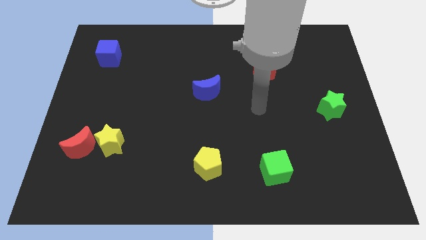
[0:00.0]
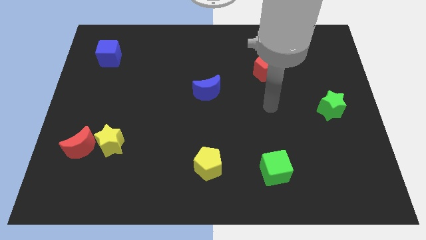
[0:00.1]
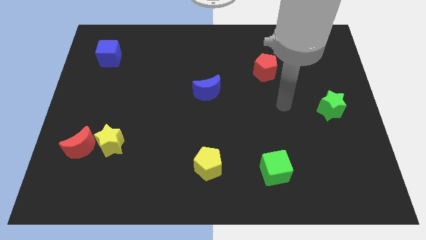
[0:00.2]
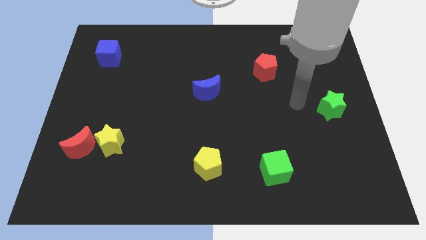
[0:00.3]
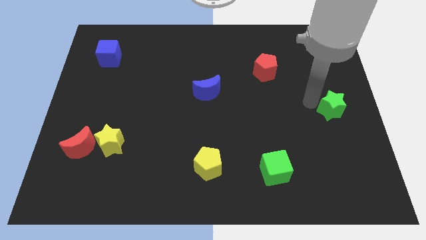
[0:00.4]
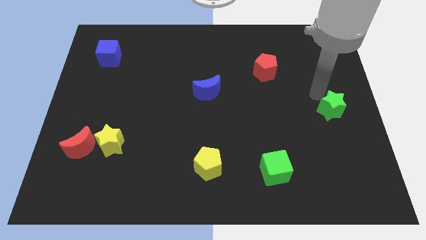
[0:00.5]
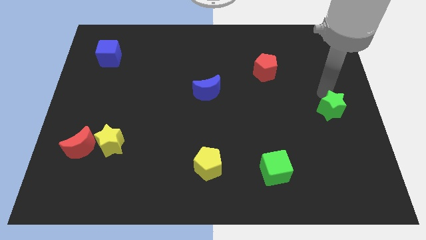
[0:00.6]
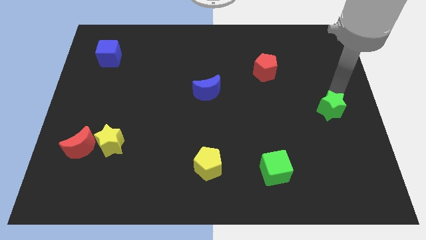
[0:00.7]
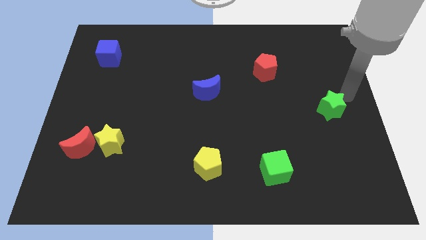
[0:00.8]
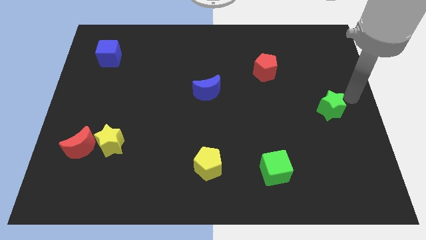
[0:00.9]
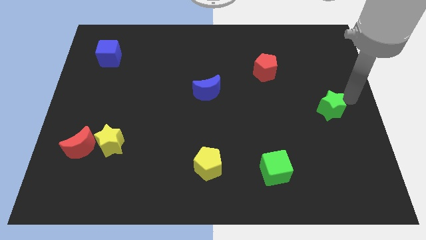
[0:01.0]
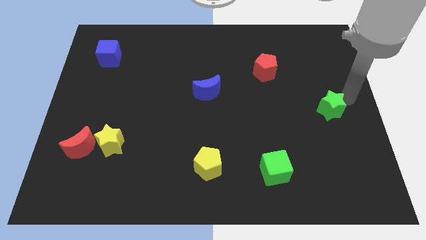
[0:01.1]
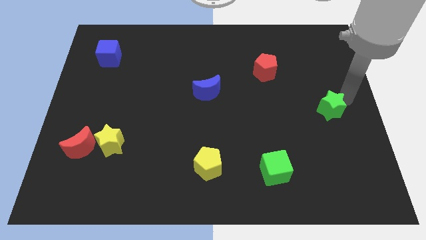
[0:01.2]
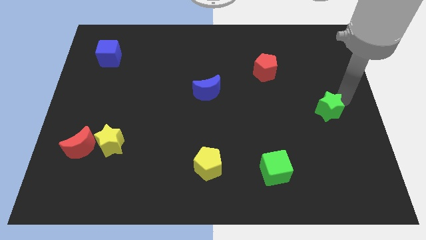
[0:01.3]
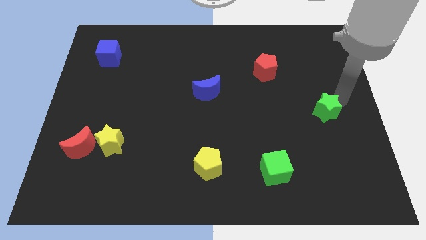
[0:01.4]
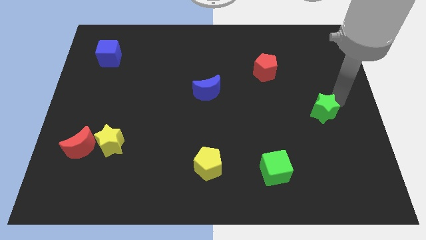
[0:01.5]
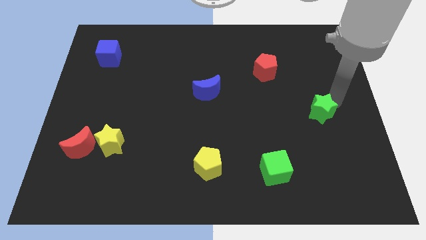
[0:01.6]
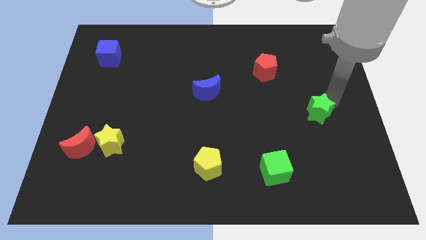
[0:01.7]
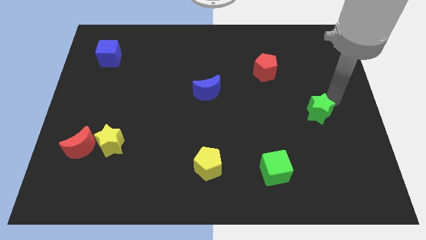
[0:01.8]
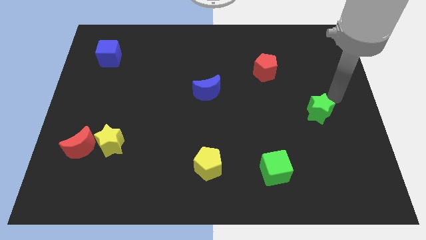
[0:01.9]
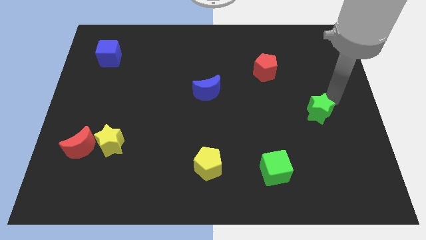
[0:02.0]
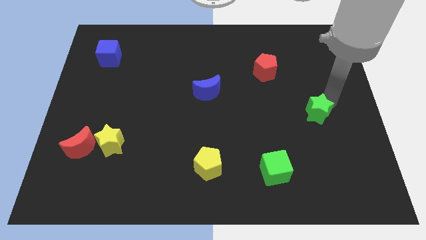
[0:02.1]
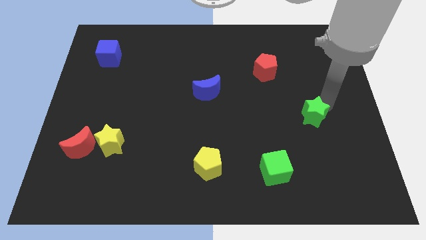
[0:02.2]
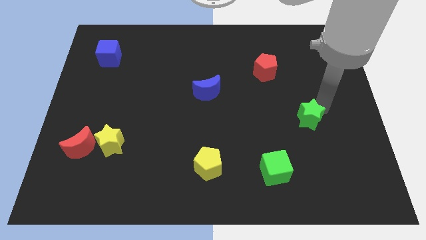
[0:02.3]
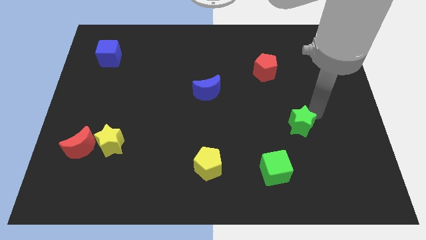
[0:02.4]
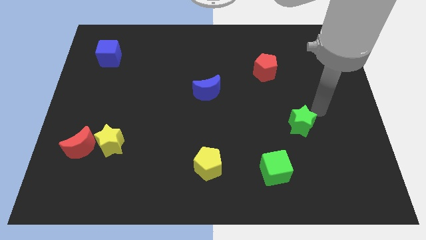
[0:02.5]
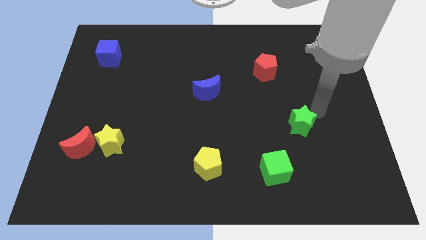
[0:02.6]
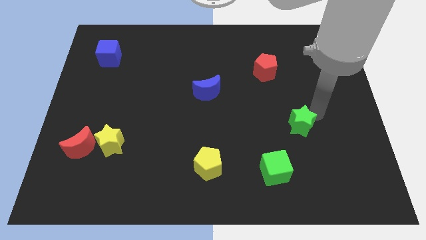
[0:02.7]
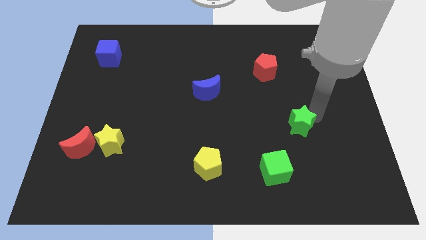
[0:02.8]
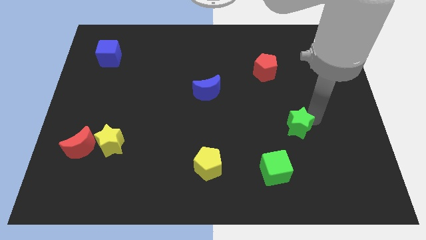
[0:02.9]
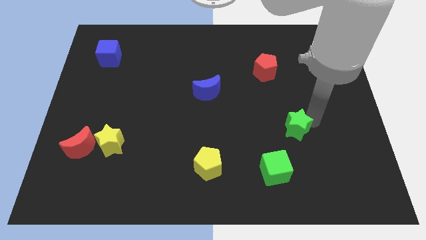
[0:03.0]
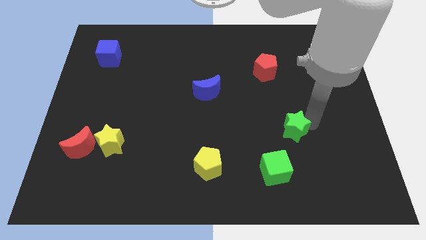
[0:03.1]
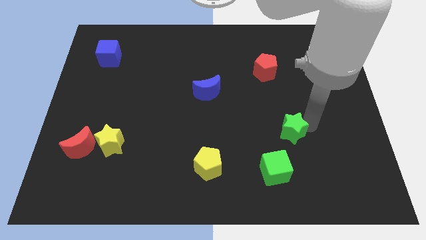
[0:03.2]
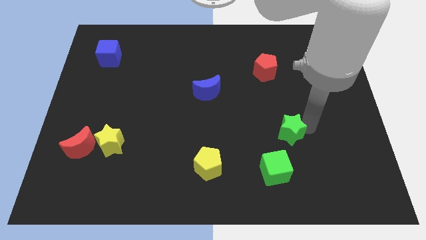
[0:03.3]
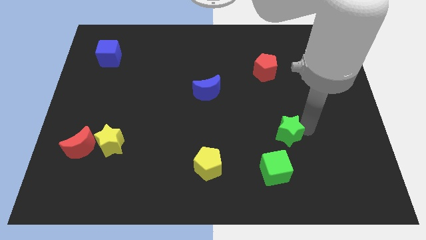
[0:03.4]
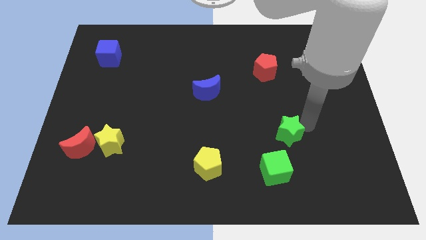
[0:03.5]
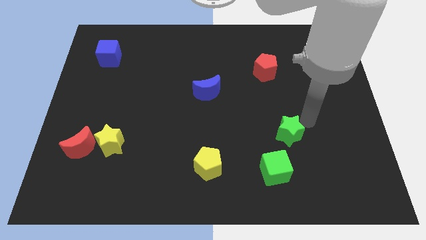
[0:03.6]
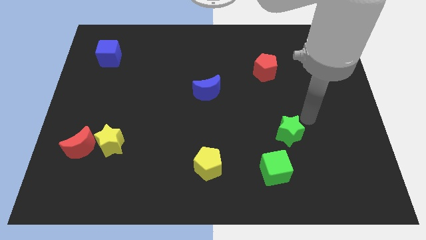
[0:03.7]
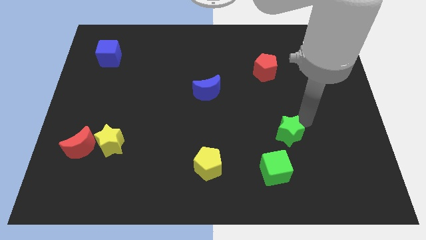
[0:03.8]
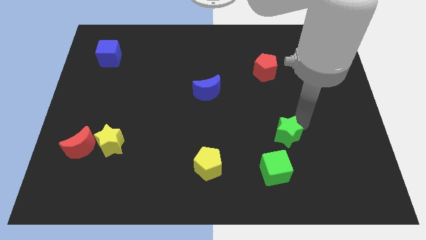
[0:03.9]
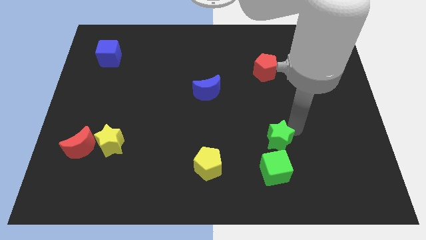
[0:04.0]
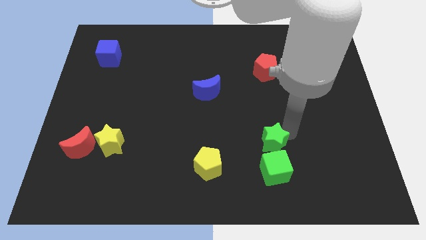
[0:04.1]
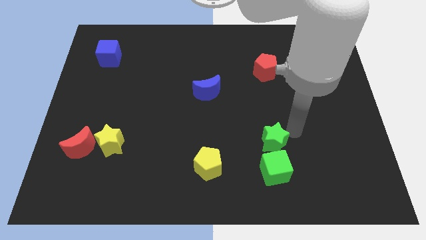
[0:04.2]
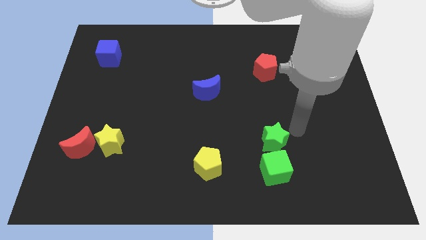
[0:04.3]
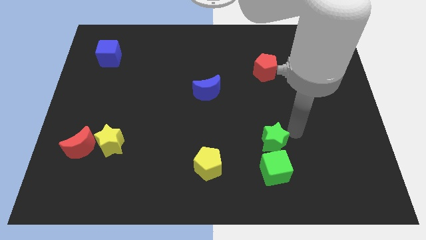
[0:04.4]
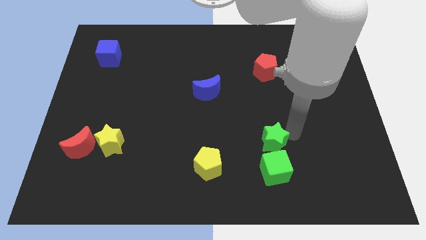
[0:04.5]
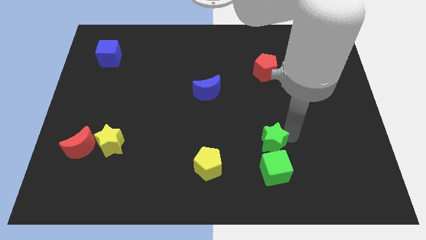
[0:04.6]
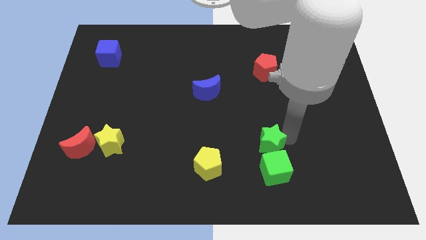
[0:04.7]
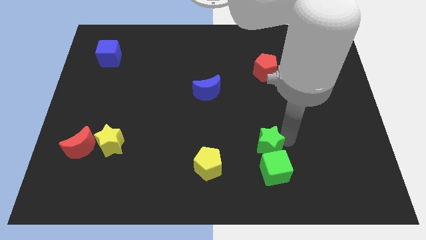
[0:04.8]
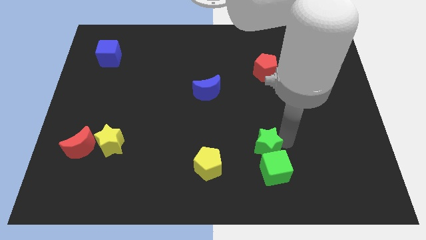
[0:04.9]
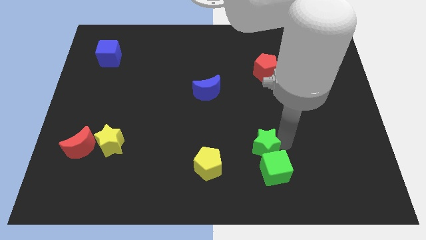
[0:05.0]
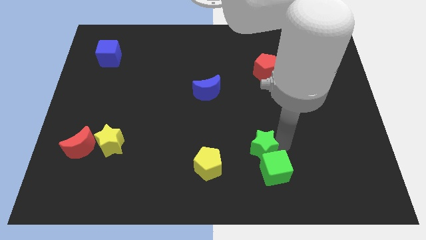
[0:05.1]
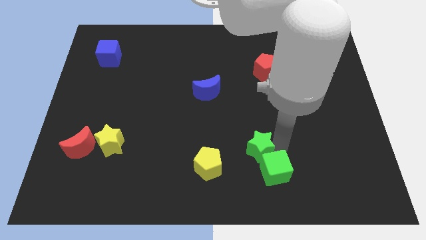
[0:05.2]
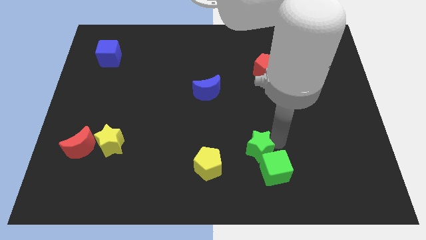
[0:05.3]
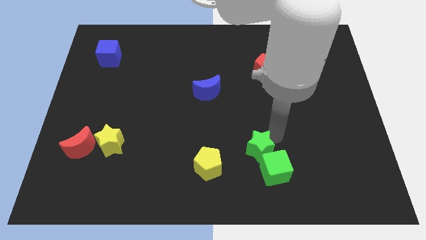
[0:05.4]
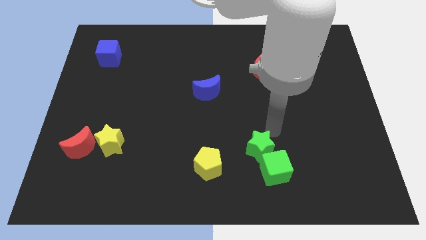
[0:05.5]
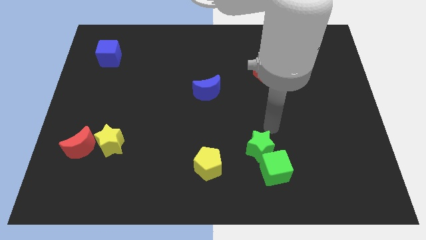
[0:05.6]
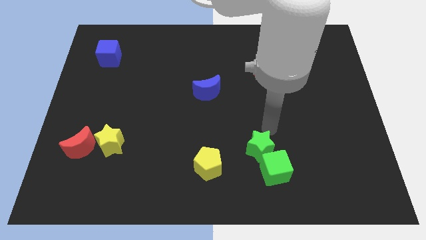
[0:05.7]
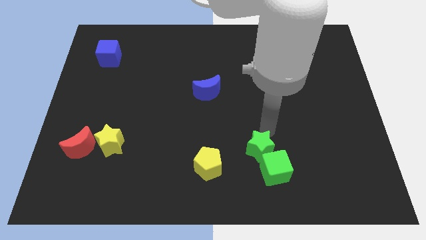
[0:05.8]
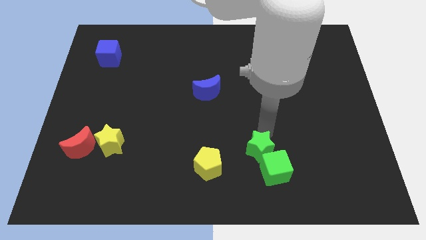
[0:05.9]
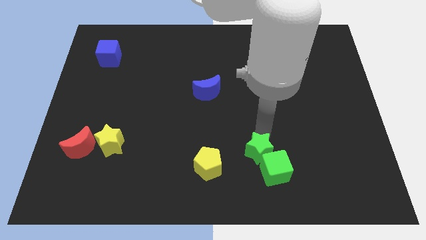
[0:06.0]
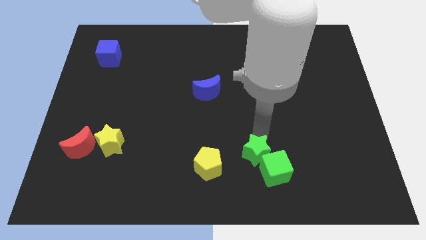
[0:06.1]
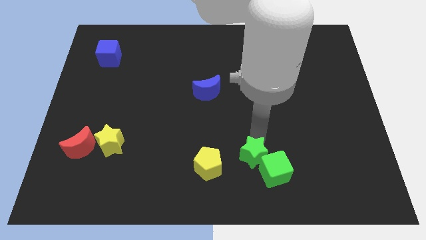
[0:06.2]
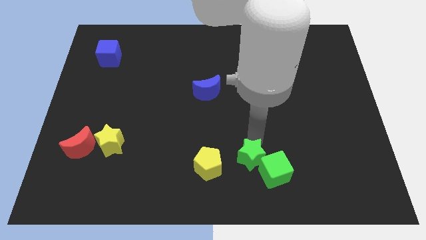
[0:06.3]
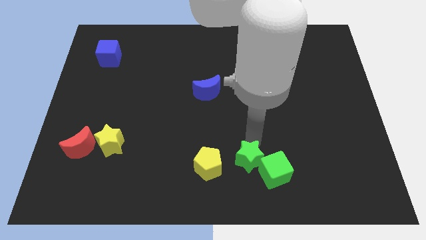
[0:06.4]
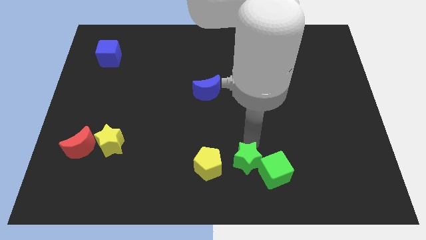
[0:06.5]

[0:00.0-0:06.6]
slide the green star to the bottom
